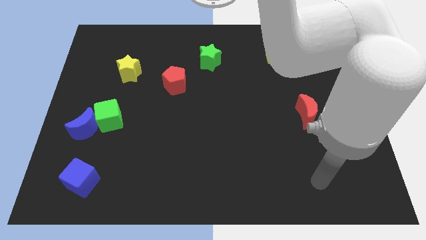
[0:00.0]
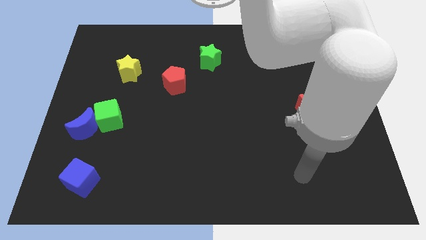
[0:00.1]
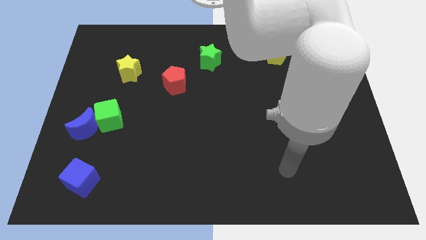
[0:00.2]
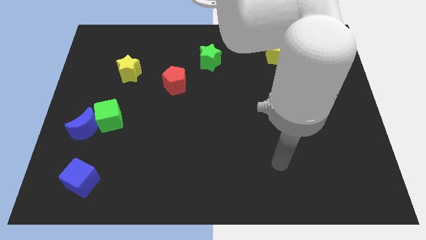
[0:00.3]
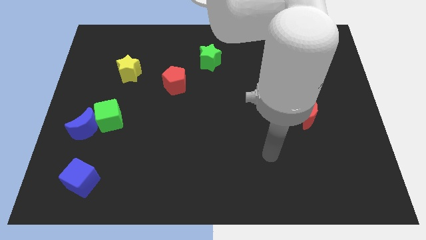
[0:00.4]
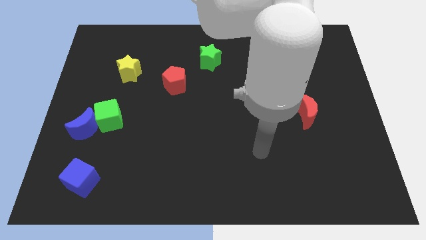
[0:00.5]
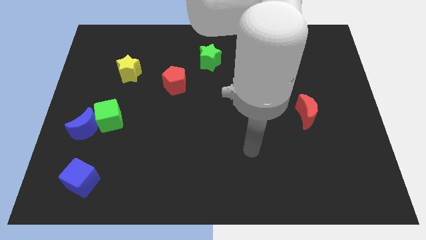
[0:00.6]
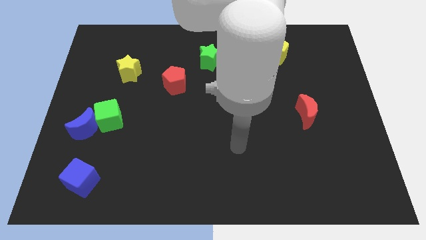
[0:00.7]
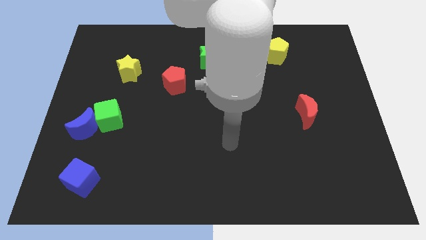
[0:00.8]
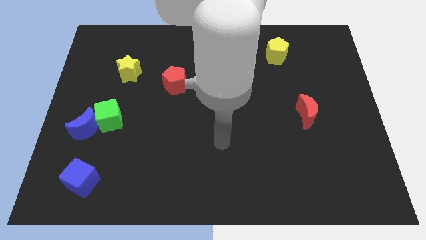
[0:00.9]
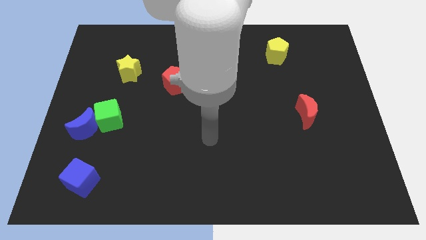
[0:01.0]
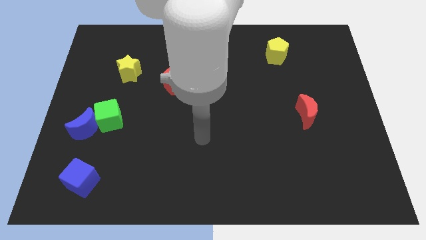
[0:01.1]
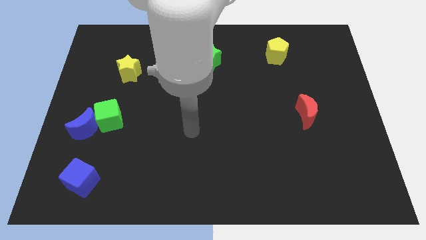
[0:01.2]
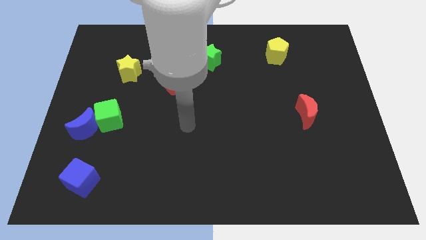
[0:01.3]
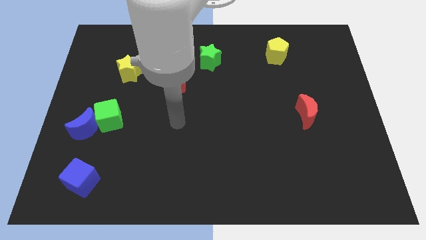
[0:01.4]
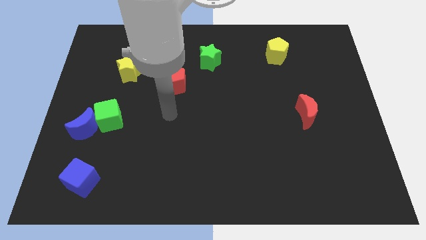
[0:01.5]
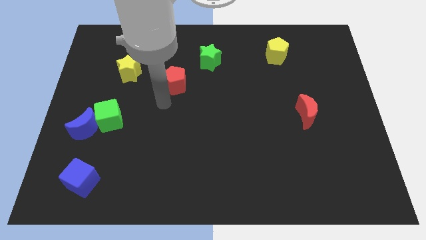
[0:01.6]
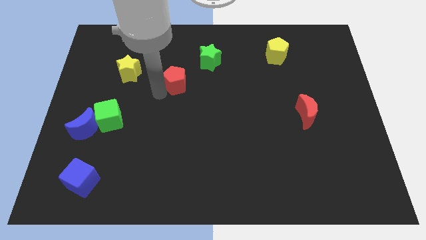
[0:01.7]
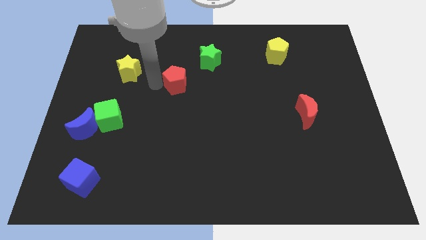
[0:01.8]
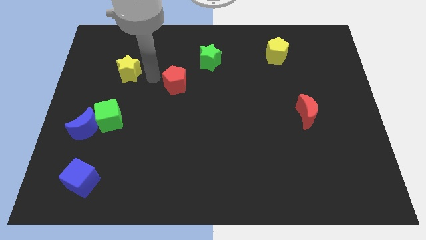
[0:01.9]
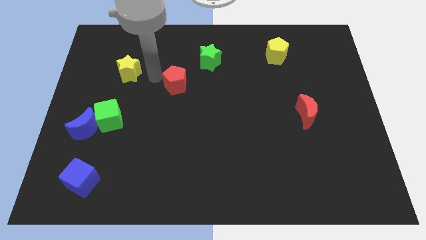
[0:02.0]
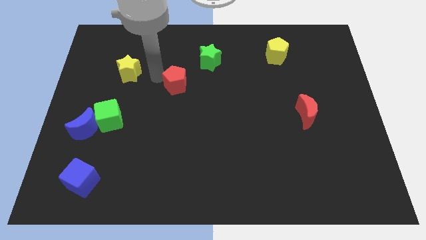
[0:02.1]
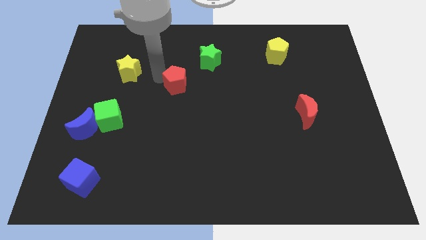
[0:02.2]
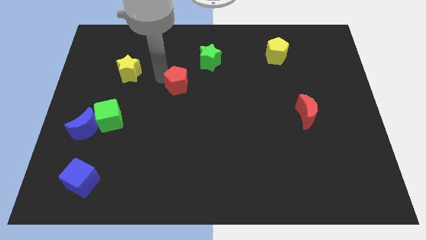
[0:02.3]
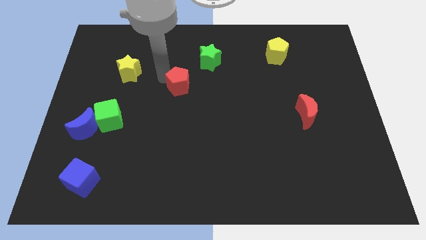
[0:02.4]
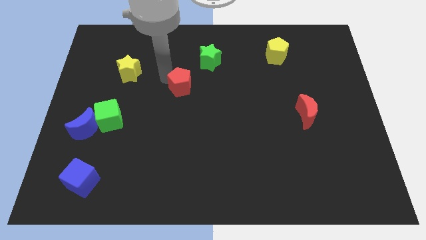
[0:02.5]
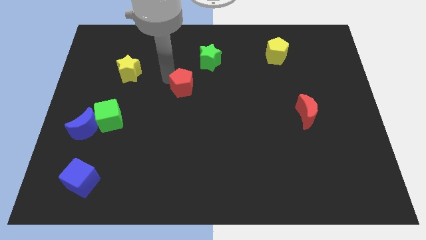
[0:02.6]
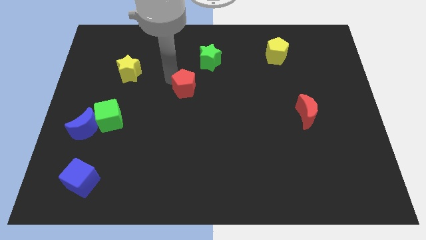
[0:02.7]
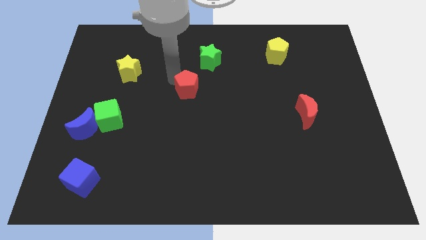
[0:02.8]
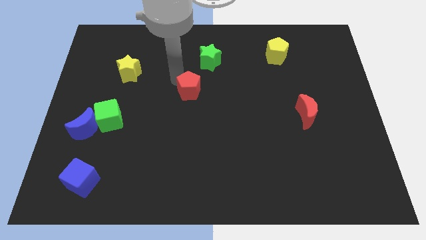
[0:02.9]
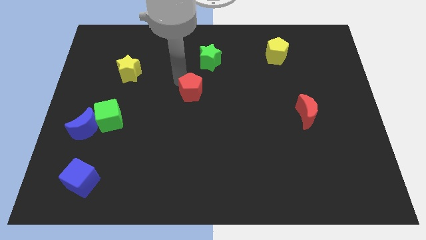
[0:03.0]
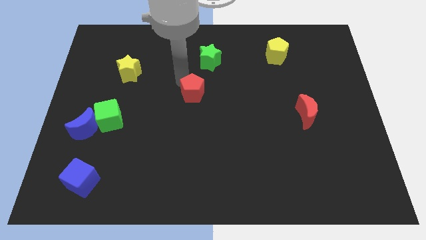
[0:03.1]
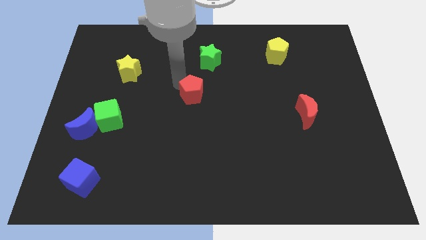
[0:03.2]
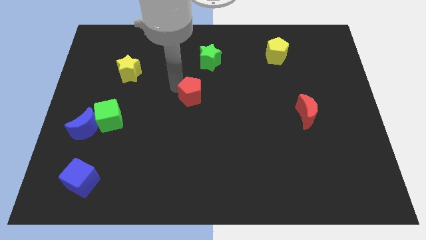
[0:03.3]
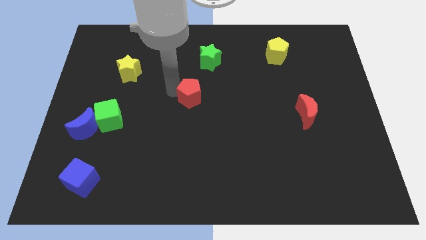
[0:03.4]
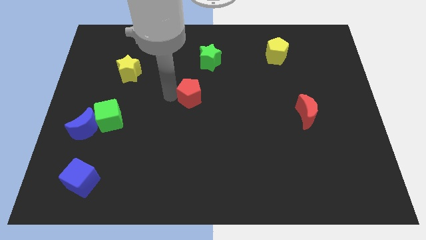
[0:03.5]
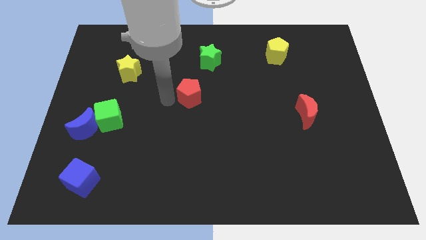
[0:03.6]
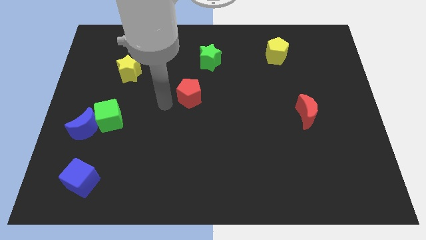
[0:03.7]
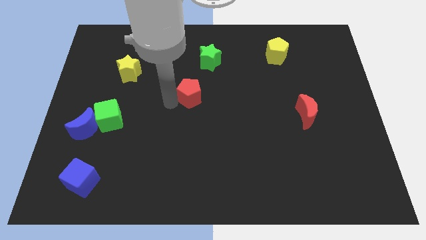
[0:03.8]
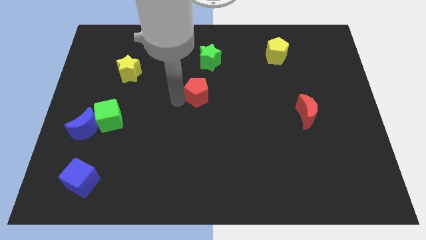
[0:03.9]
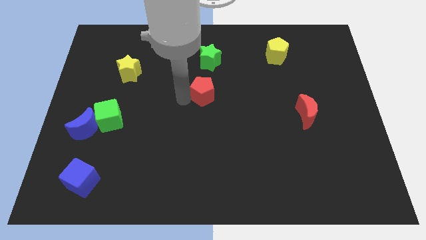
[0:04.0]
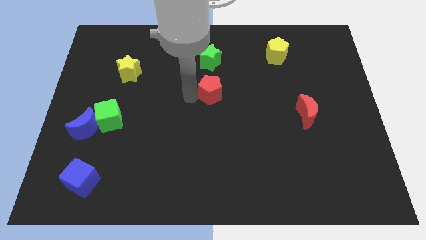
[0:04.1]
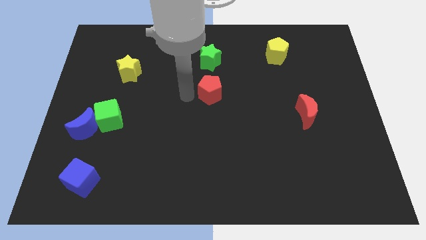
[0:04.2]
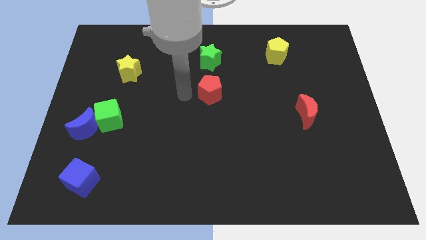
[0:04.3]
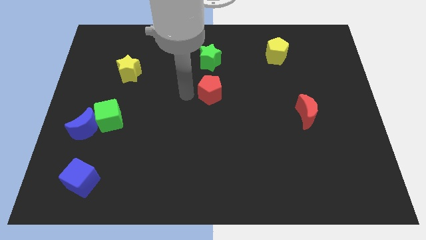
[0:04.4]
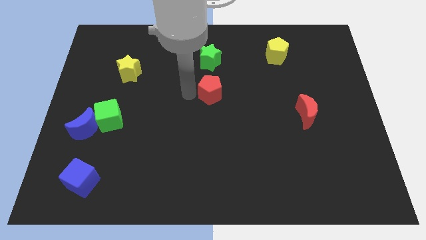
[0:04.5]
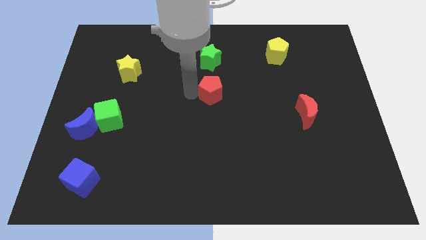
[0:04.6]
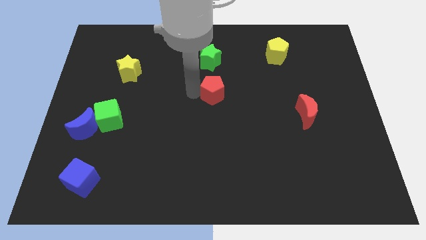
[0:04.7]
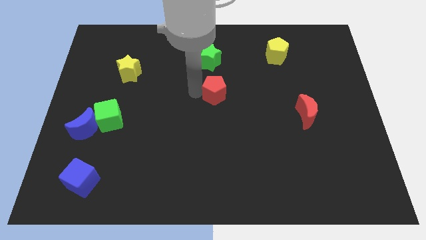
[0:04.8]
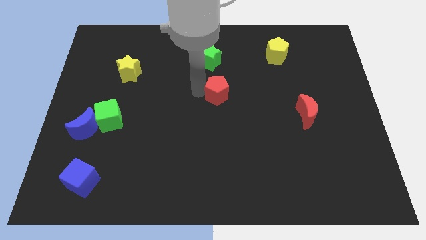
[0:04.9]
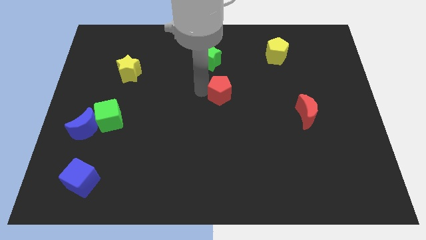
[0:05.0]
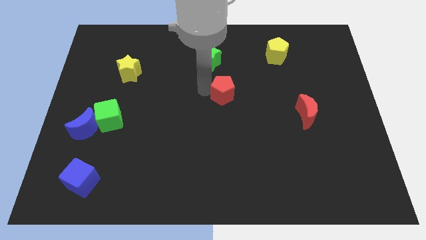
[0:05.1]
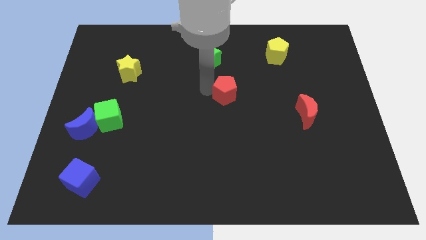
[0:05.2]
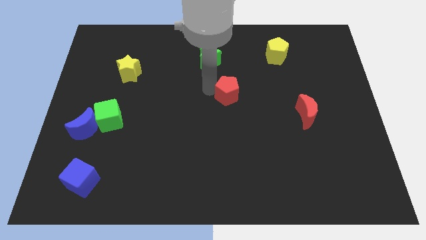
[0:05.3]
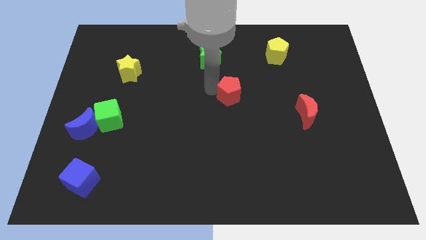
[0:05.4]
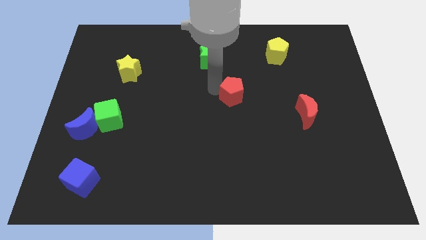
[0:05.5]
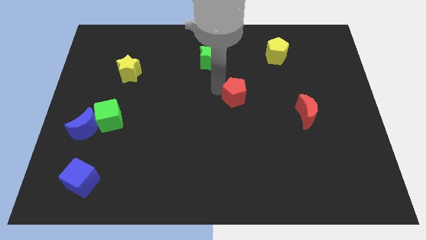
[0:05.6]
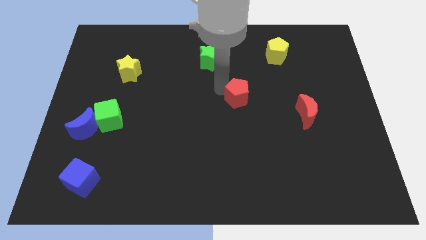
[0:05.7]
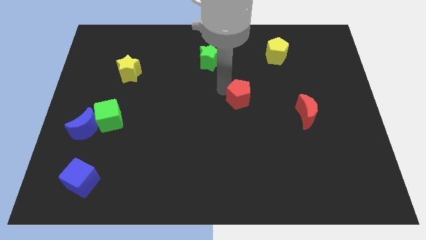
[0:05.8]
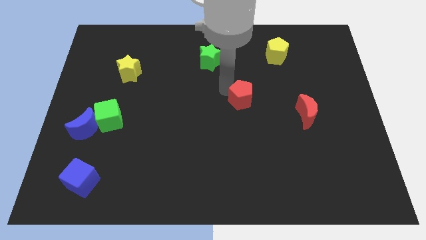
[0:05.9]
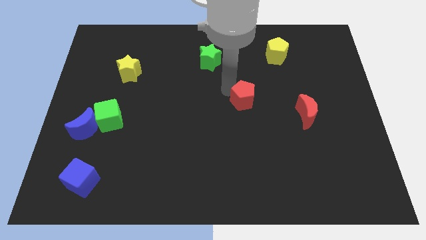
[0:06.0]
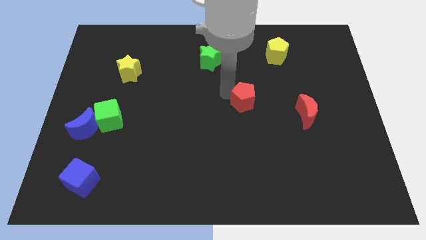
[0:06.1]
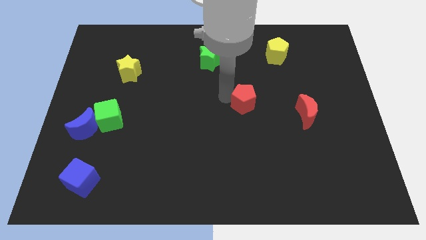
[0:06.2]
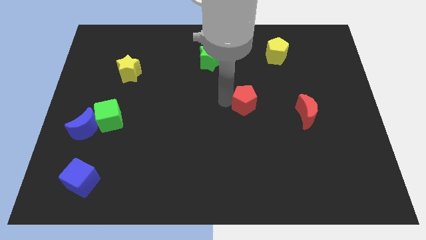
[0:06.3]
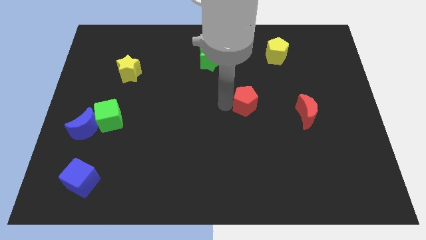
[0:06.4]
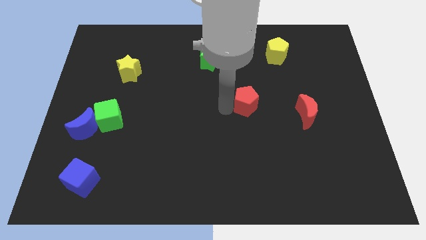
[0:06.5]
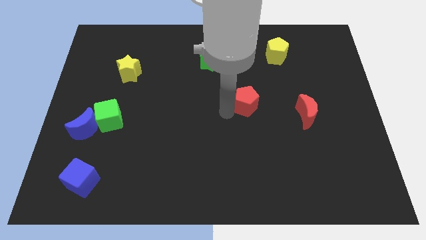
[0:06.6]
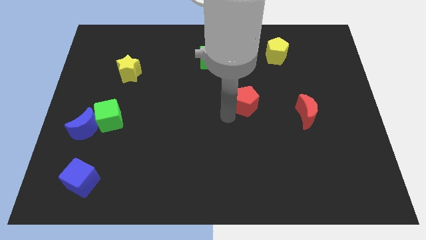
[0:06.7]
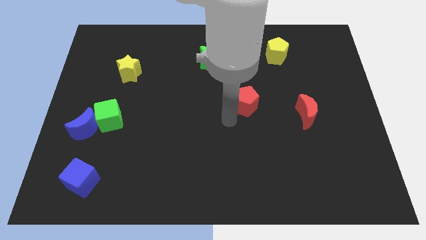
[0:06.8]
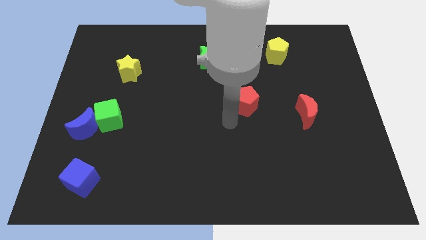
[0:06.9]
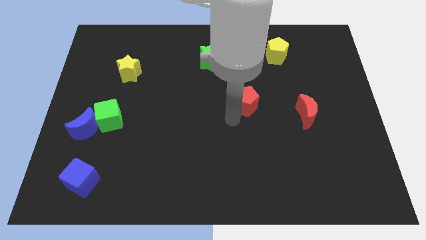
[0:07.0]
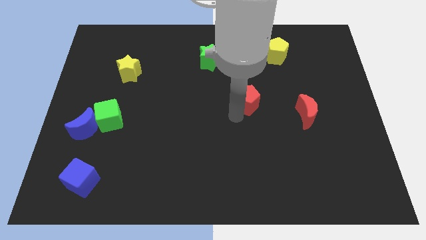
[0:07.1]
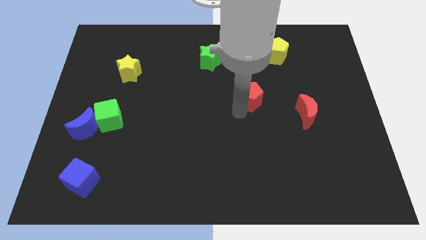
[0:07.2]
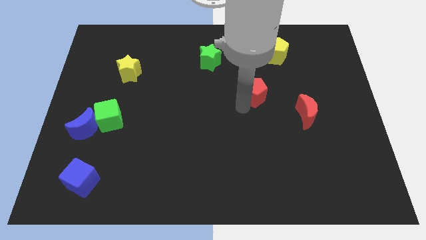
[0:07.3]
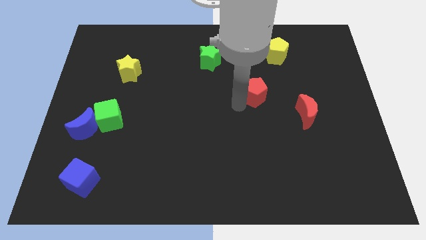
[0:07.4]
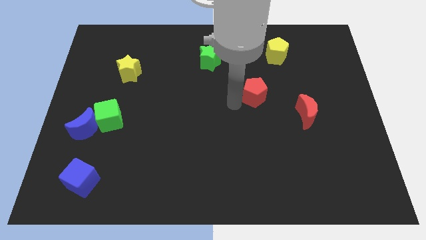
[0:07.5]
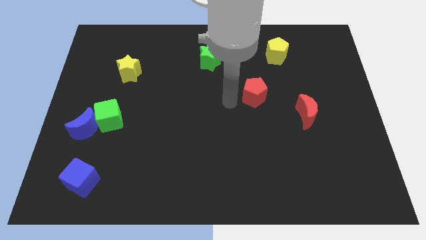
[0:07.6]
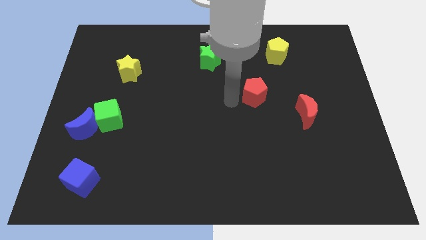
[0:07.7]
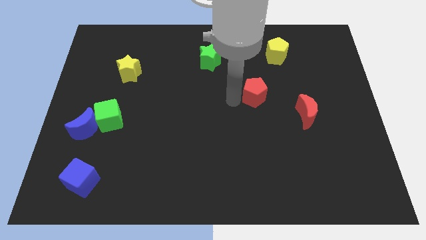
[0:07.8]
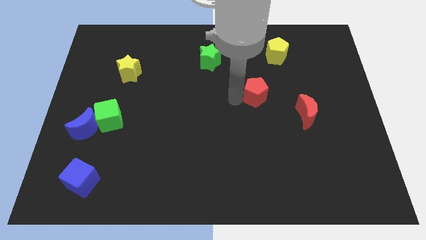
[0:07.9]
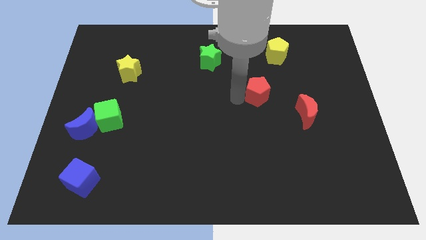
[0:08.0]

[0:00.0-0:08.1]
push the red pentagon right
